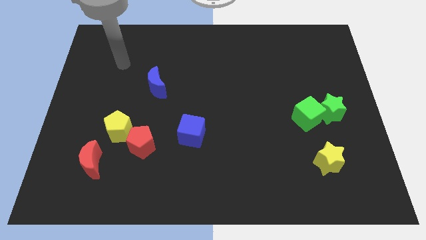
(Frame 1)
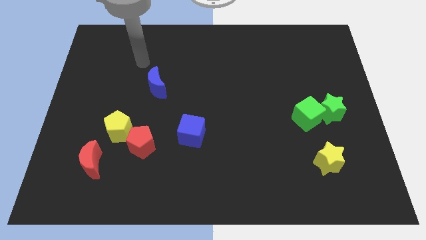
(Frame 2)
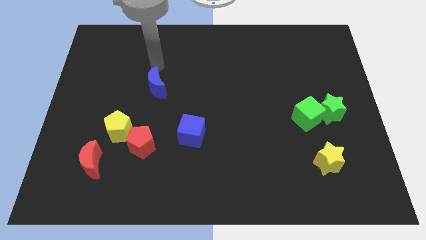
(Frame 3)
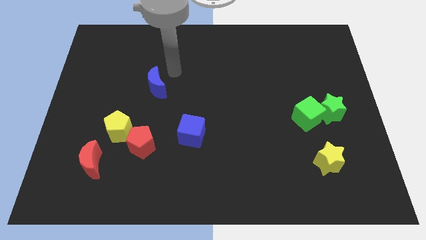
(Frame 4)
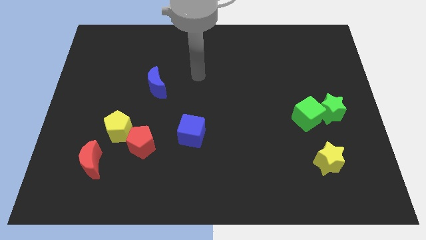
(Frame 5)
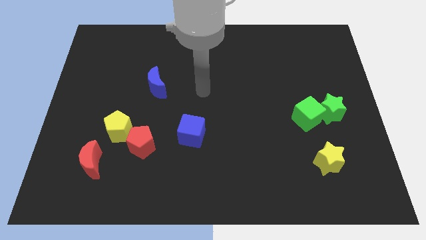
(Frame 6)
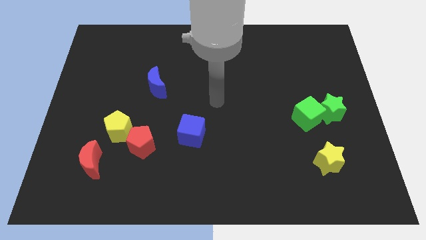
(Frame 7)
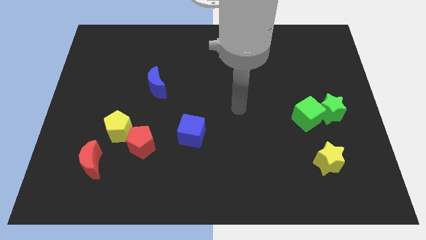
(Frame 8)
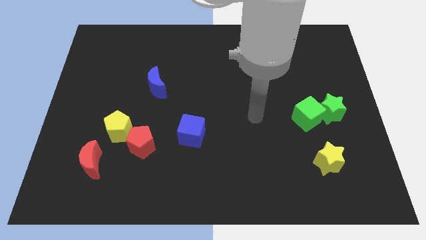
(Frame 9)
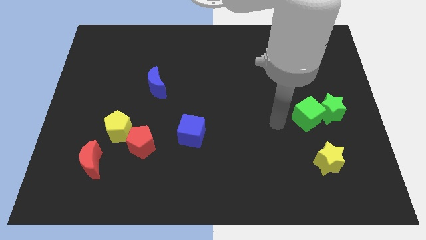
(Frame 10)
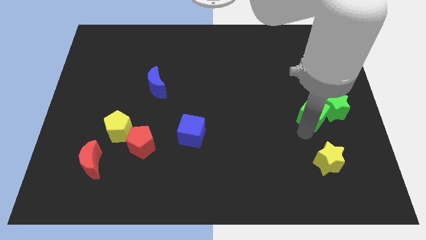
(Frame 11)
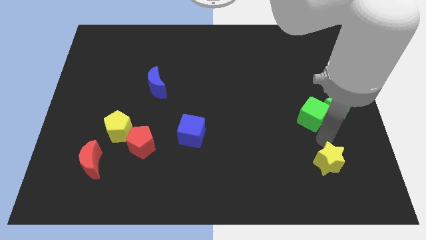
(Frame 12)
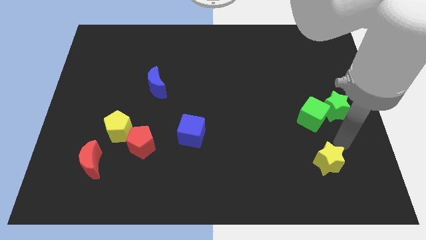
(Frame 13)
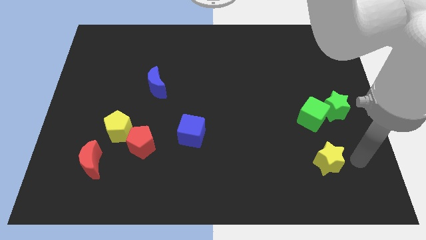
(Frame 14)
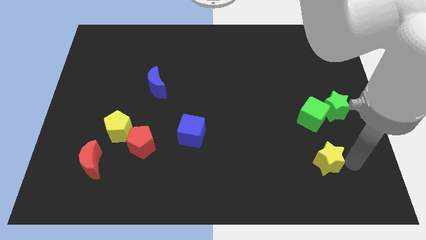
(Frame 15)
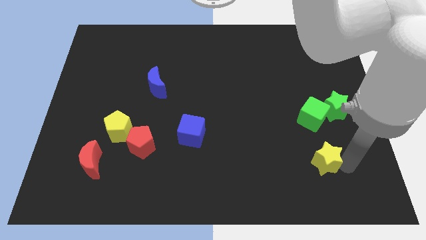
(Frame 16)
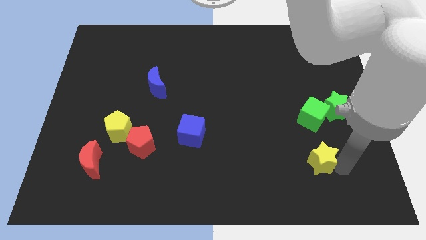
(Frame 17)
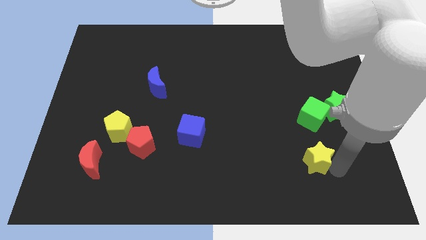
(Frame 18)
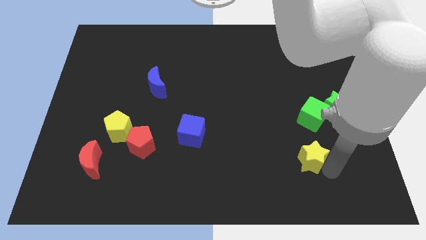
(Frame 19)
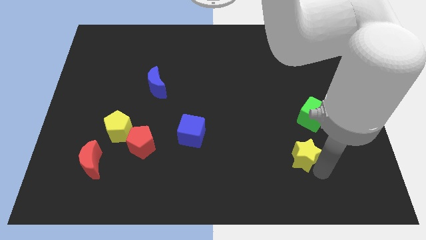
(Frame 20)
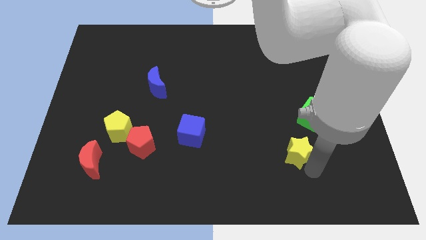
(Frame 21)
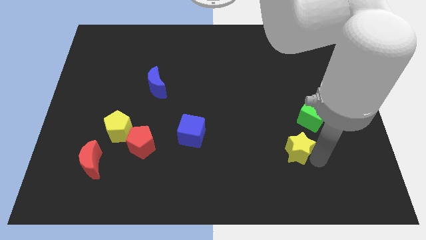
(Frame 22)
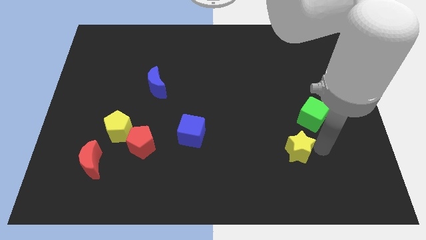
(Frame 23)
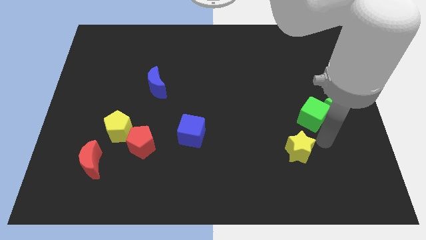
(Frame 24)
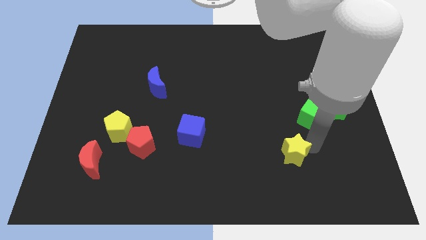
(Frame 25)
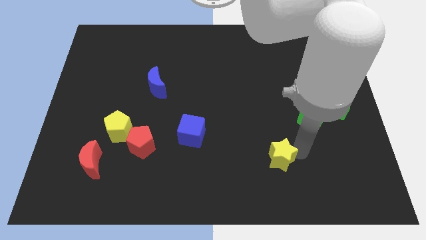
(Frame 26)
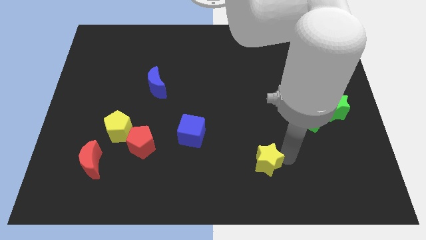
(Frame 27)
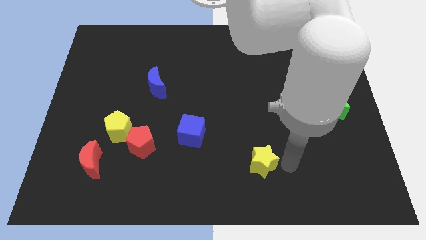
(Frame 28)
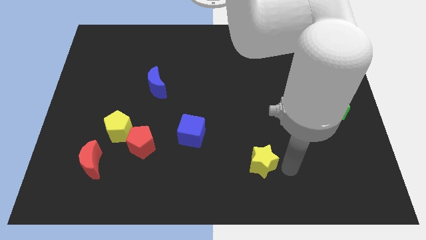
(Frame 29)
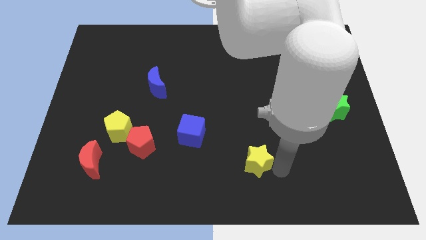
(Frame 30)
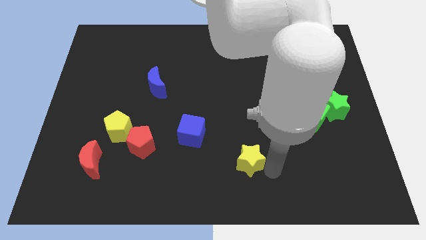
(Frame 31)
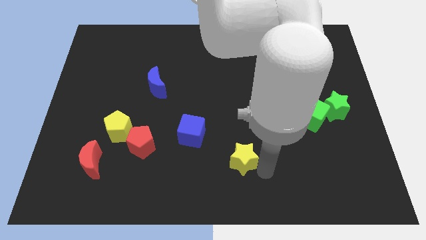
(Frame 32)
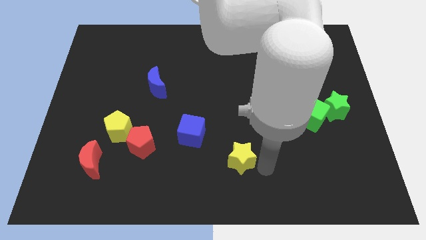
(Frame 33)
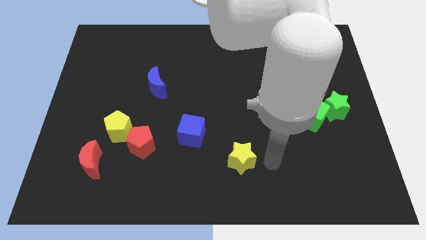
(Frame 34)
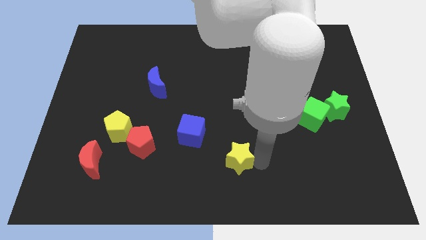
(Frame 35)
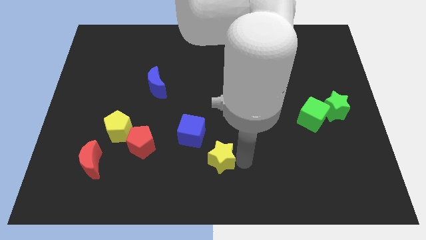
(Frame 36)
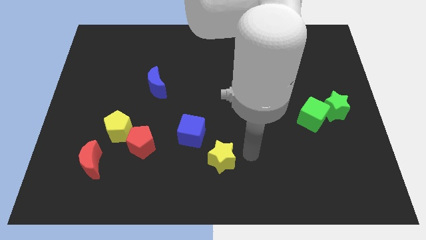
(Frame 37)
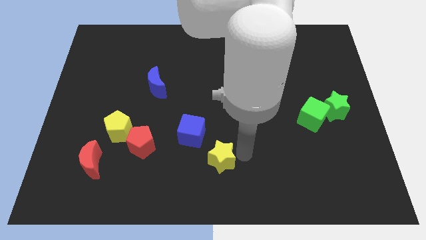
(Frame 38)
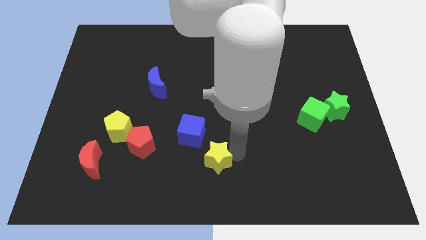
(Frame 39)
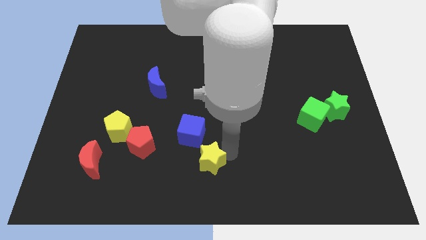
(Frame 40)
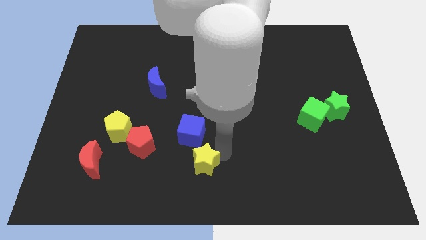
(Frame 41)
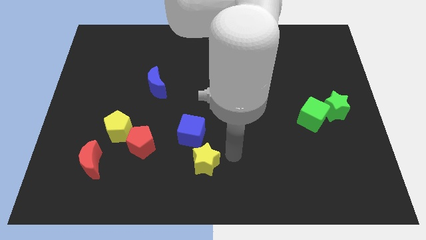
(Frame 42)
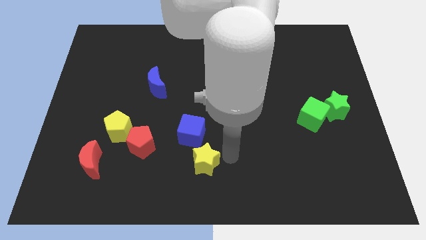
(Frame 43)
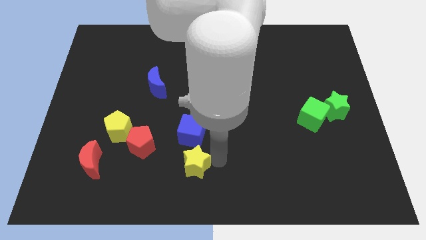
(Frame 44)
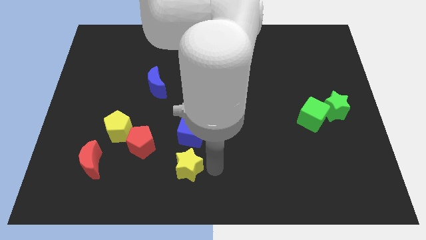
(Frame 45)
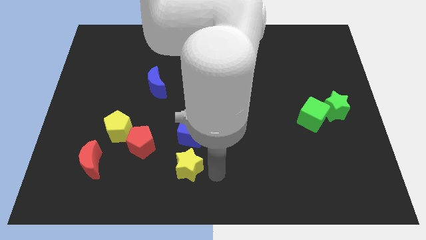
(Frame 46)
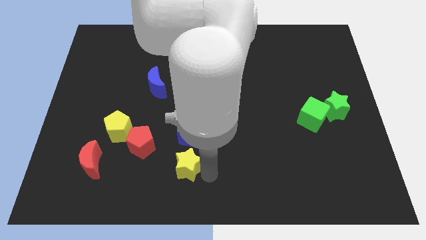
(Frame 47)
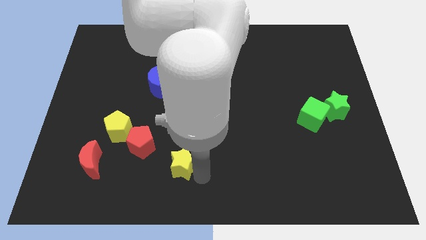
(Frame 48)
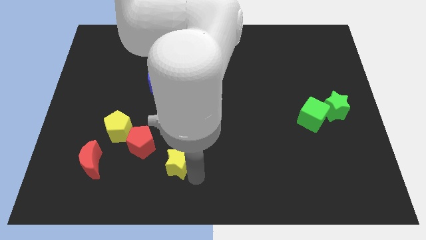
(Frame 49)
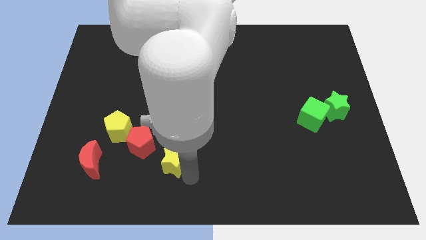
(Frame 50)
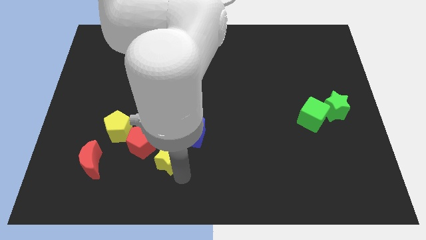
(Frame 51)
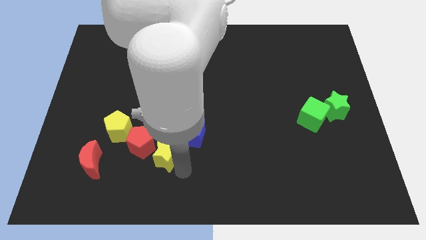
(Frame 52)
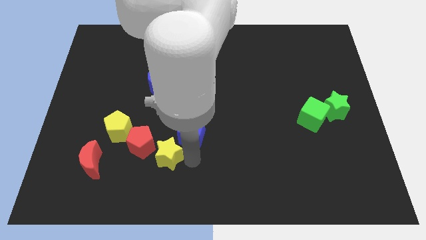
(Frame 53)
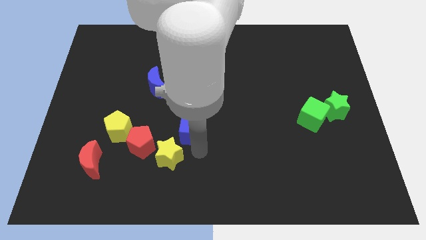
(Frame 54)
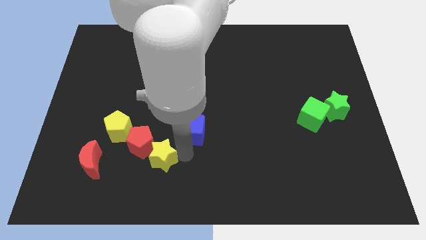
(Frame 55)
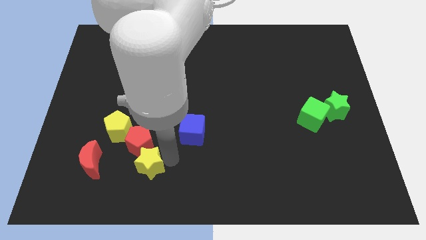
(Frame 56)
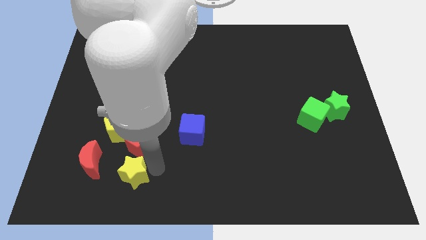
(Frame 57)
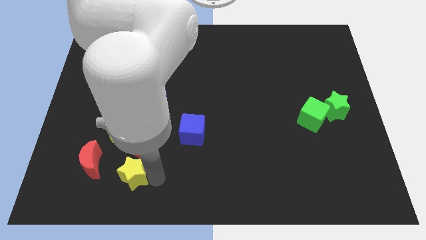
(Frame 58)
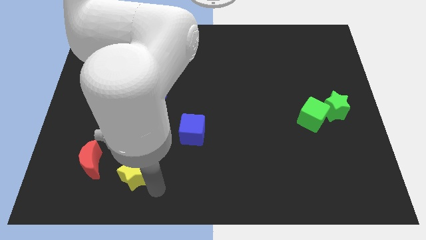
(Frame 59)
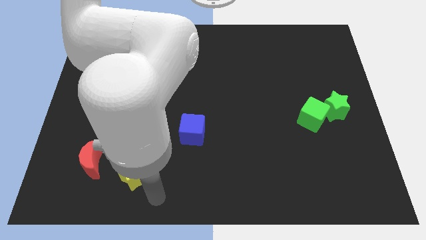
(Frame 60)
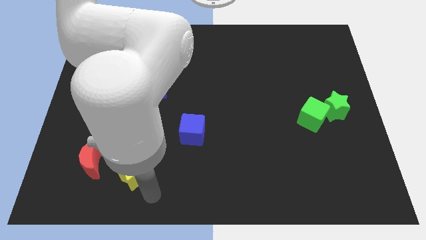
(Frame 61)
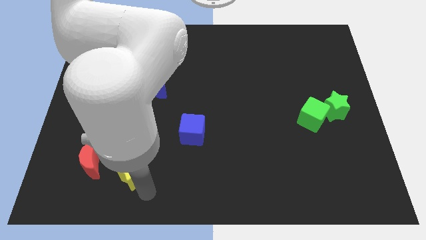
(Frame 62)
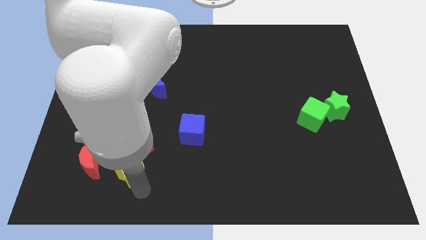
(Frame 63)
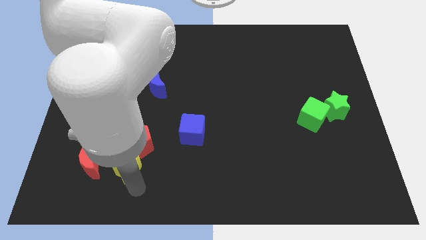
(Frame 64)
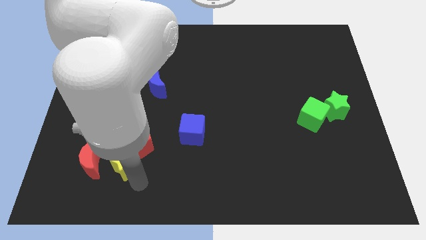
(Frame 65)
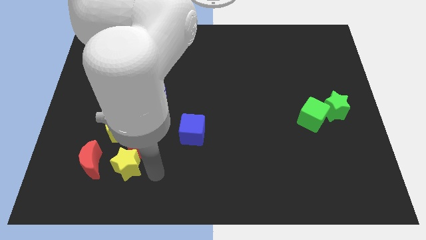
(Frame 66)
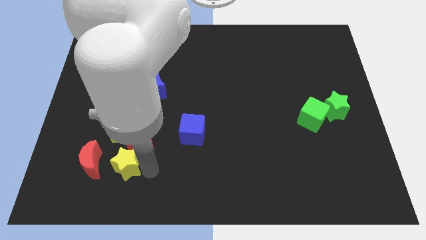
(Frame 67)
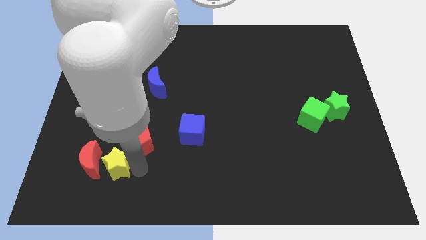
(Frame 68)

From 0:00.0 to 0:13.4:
move the yellow star towards the red moon
